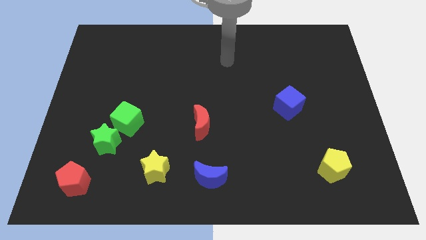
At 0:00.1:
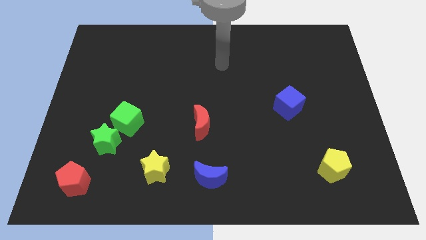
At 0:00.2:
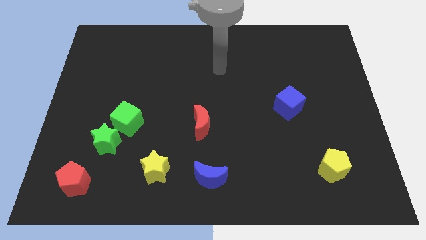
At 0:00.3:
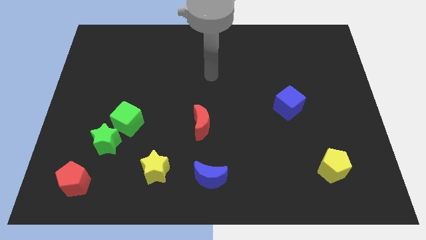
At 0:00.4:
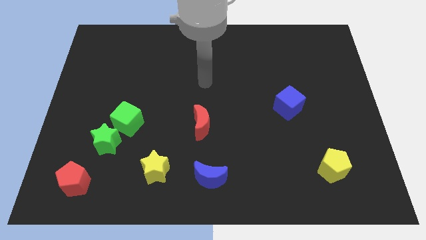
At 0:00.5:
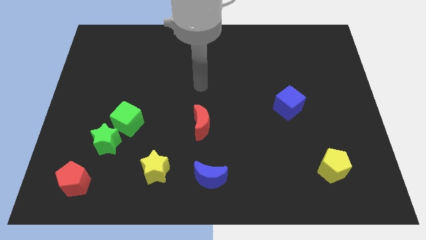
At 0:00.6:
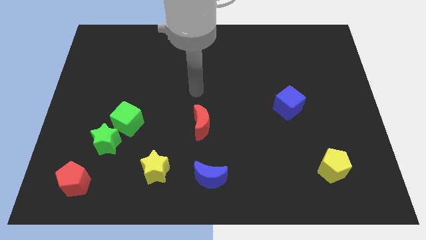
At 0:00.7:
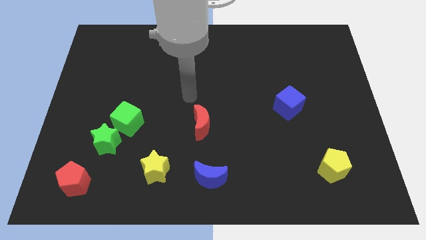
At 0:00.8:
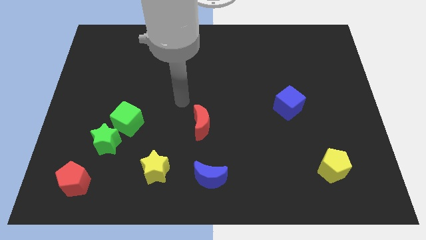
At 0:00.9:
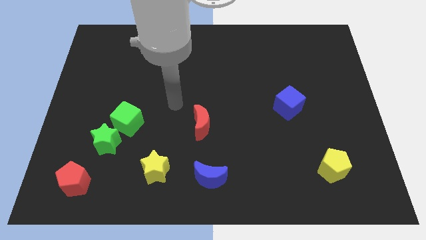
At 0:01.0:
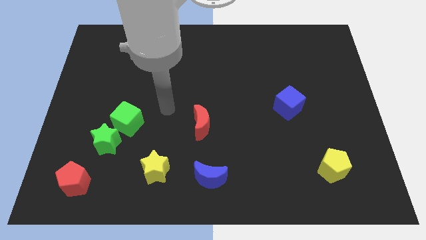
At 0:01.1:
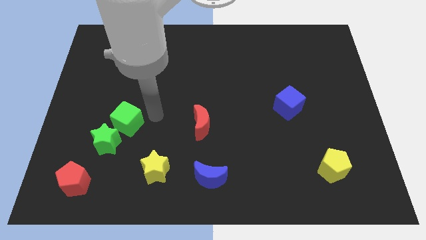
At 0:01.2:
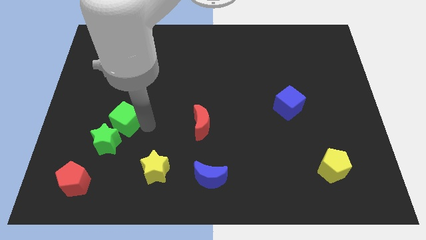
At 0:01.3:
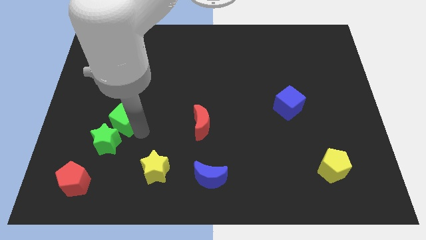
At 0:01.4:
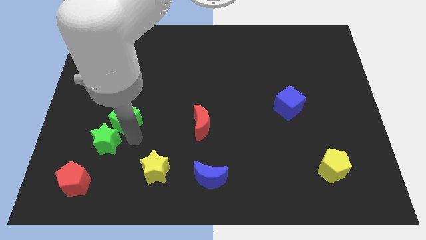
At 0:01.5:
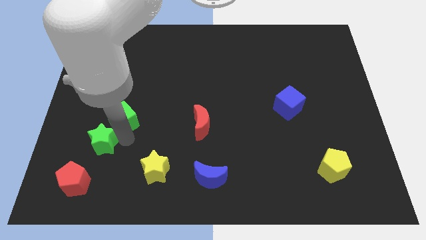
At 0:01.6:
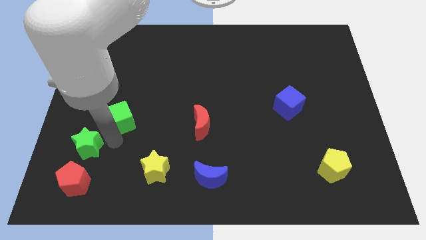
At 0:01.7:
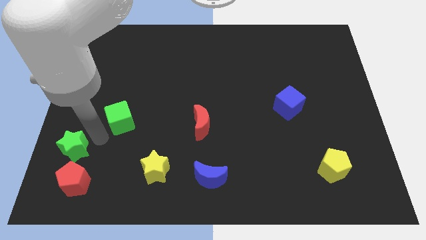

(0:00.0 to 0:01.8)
pull the green cube apart from the green star

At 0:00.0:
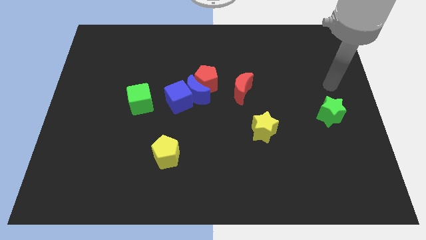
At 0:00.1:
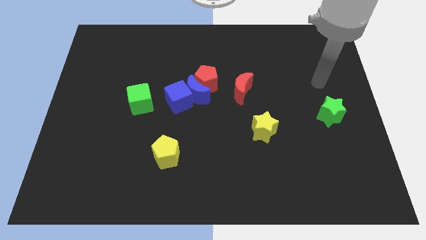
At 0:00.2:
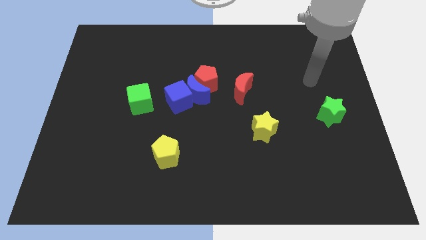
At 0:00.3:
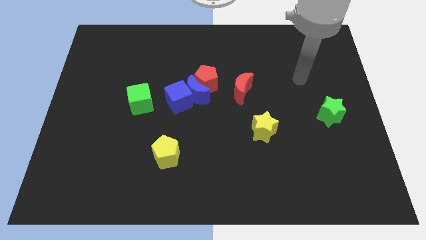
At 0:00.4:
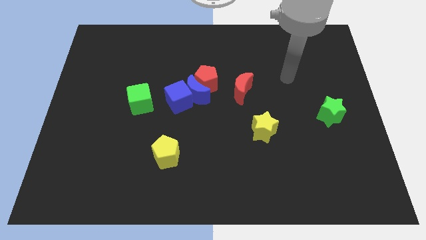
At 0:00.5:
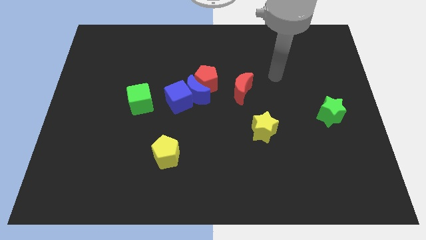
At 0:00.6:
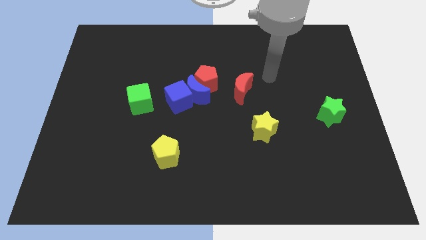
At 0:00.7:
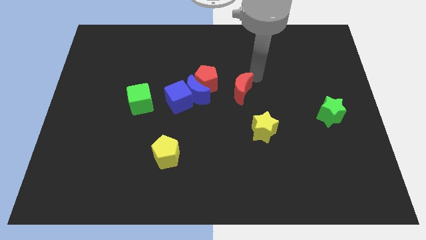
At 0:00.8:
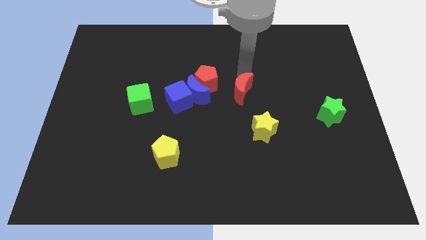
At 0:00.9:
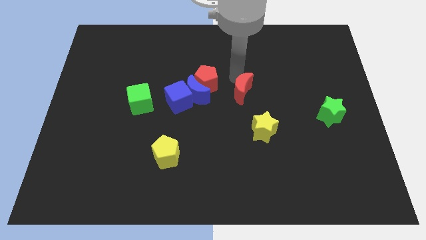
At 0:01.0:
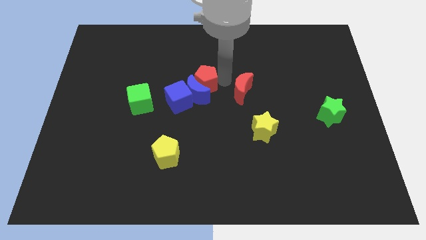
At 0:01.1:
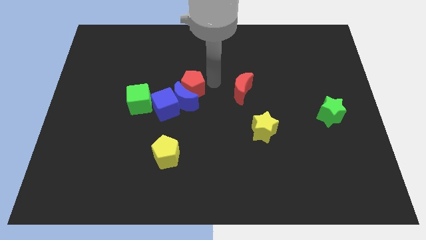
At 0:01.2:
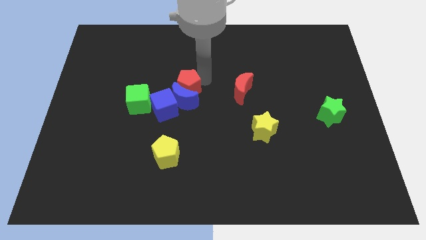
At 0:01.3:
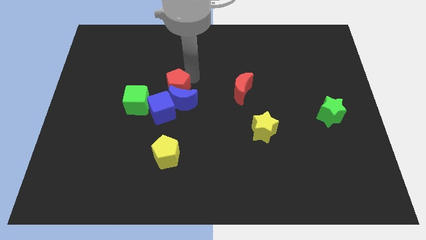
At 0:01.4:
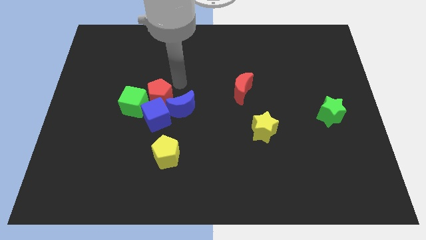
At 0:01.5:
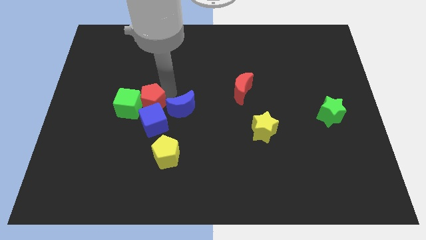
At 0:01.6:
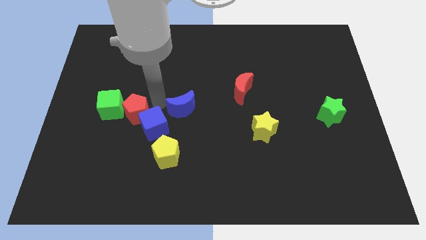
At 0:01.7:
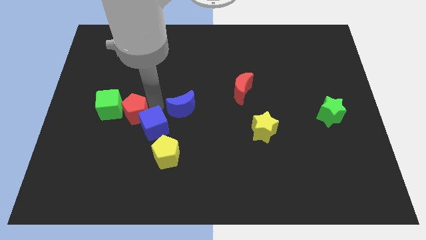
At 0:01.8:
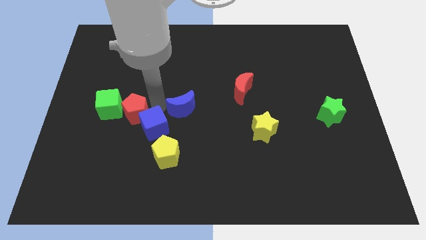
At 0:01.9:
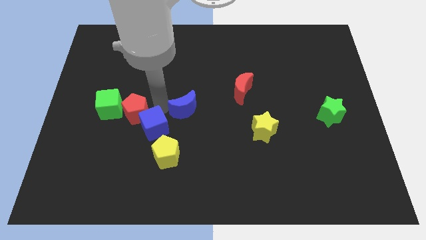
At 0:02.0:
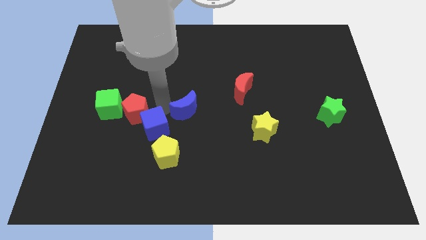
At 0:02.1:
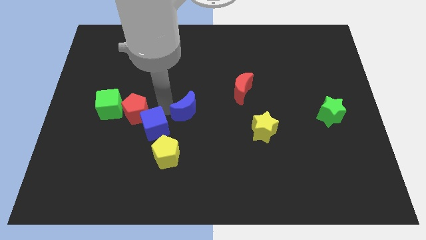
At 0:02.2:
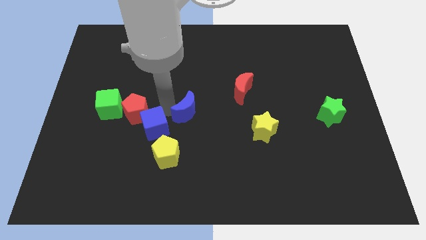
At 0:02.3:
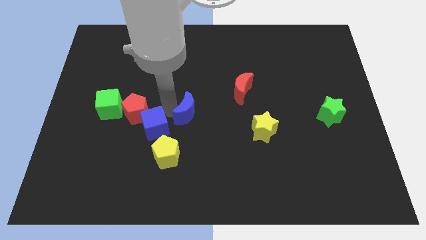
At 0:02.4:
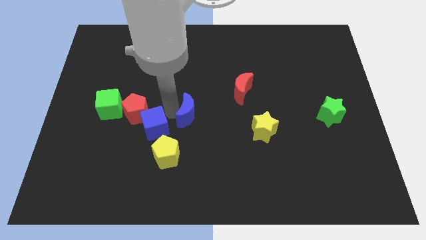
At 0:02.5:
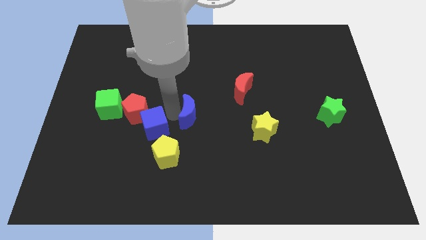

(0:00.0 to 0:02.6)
pull the blue moon apart from the red pentagon and blue cube

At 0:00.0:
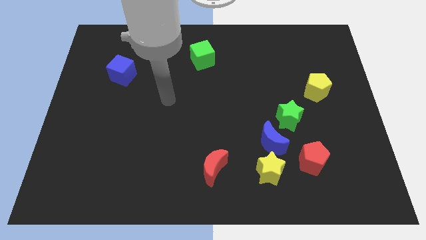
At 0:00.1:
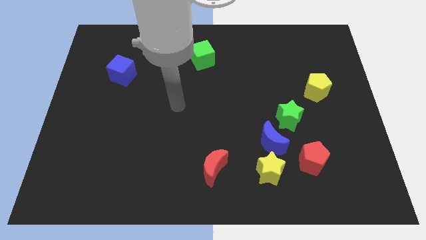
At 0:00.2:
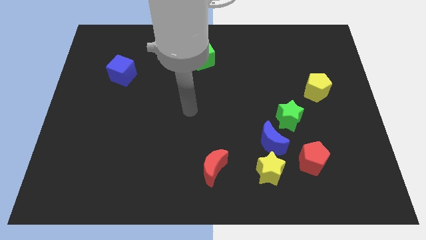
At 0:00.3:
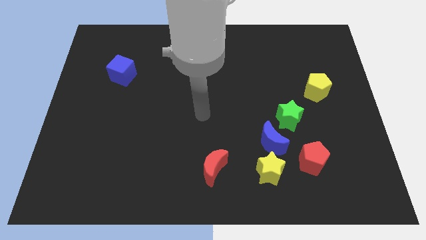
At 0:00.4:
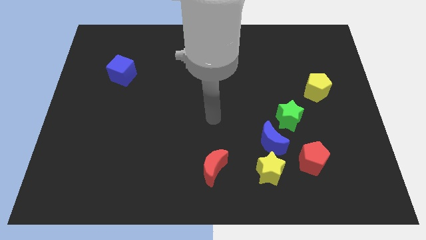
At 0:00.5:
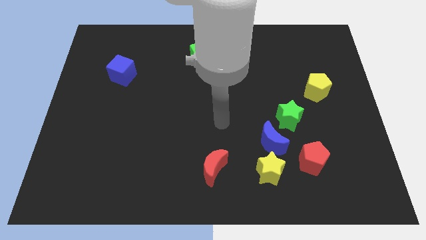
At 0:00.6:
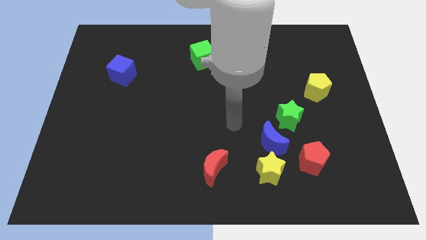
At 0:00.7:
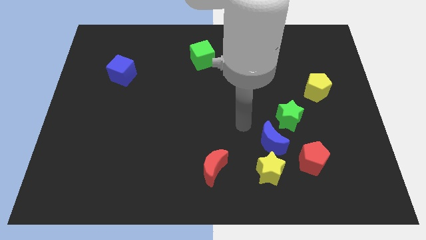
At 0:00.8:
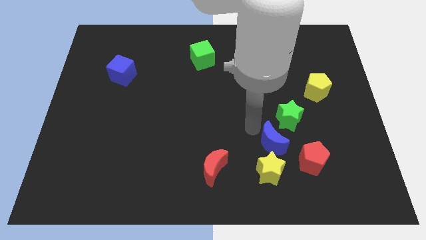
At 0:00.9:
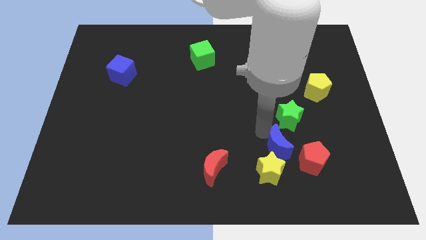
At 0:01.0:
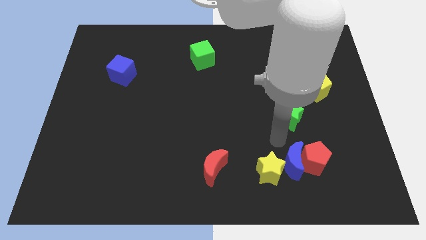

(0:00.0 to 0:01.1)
move the green star away from the blue moon

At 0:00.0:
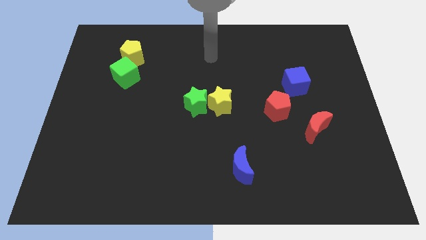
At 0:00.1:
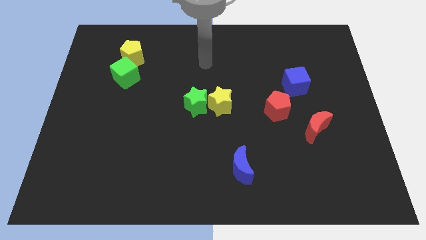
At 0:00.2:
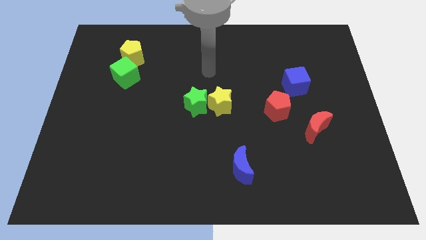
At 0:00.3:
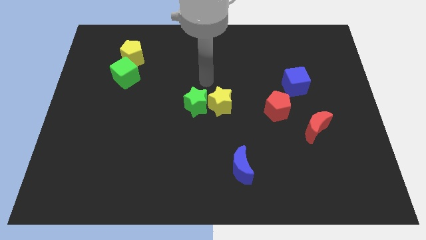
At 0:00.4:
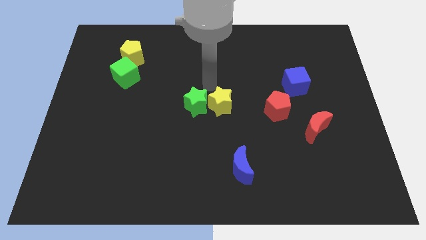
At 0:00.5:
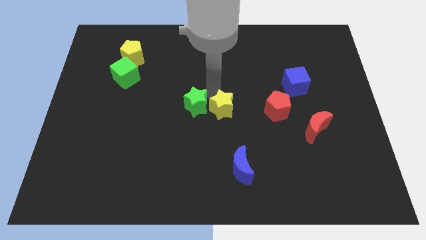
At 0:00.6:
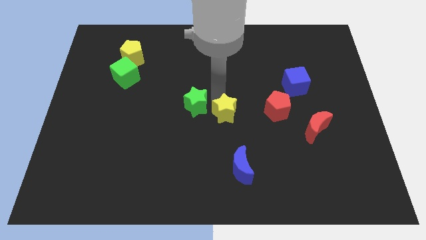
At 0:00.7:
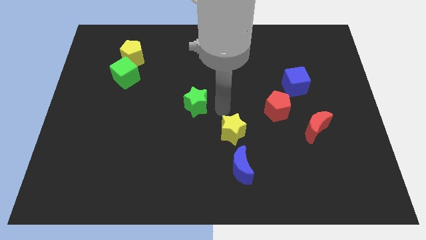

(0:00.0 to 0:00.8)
move the green star away from the yellow star

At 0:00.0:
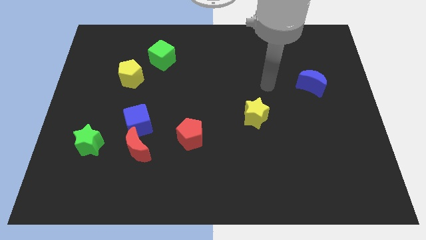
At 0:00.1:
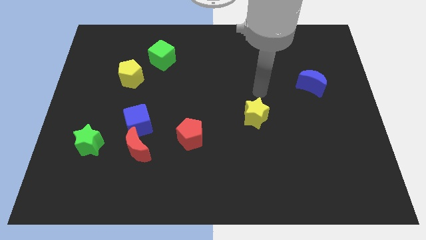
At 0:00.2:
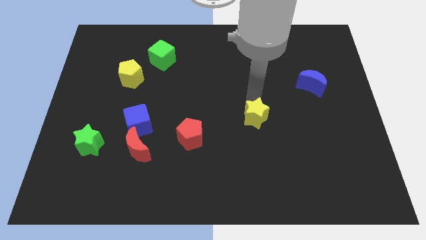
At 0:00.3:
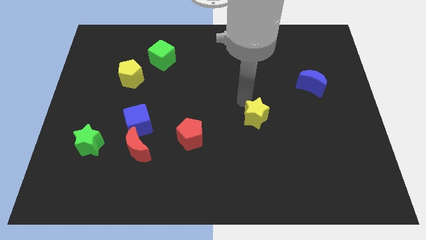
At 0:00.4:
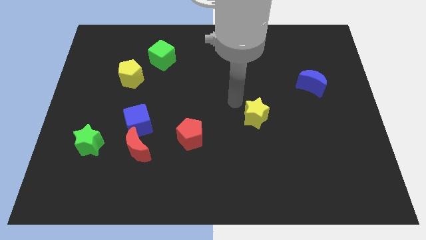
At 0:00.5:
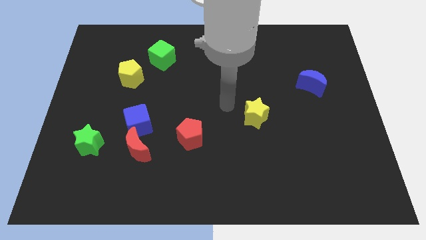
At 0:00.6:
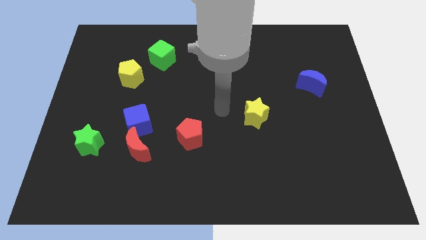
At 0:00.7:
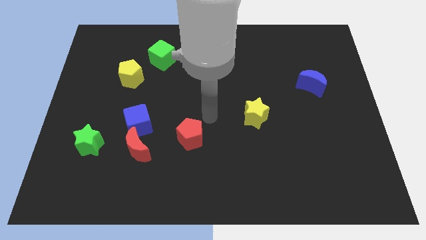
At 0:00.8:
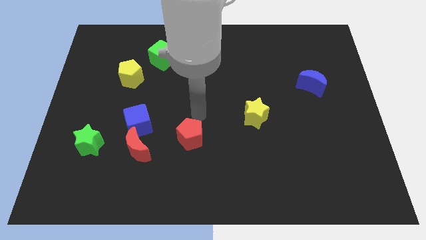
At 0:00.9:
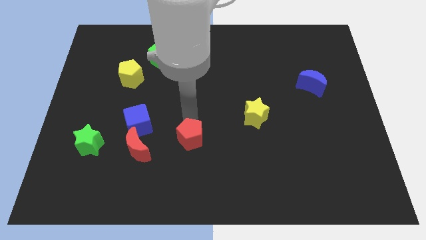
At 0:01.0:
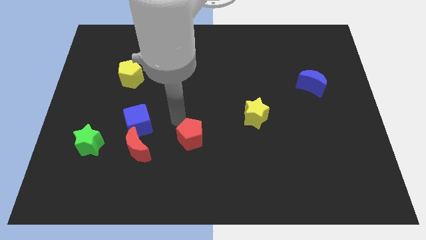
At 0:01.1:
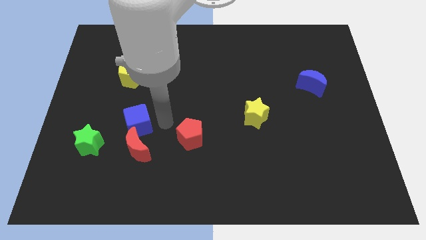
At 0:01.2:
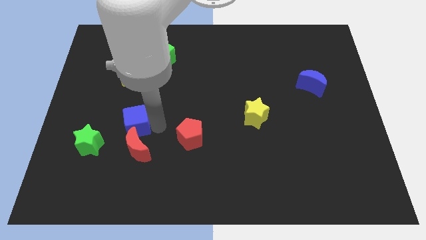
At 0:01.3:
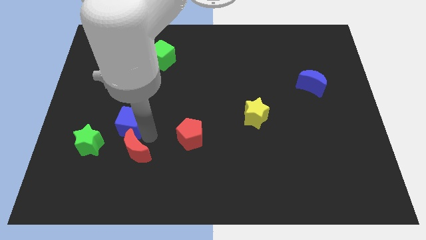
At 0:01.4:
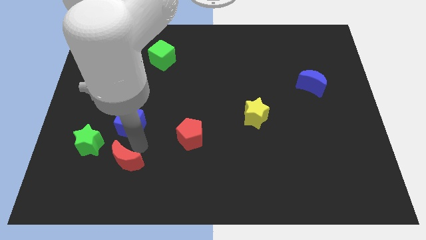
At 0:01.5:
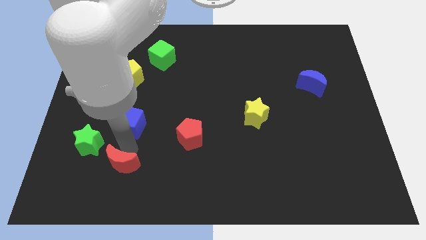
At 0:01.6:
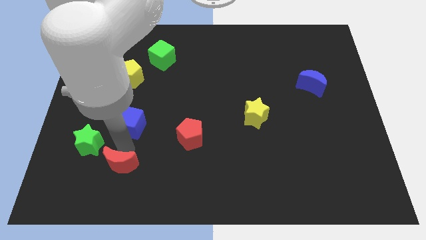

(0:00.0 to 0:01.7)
pull the blue cube apart from the red moon

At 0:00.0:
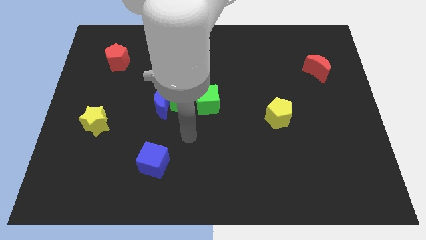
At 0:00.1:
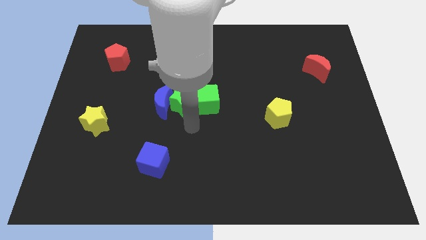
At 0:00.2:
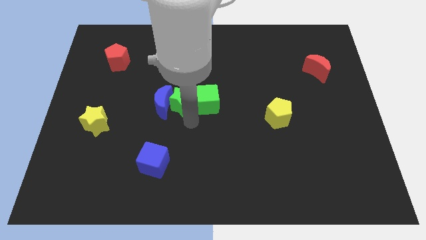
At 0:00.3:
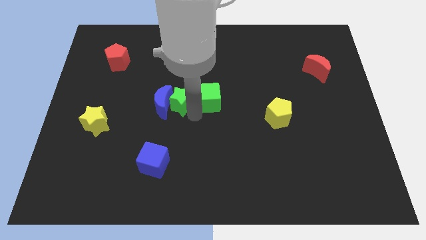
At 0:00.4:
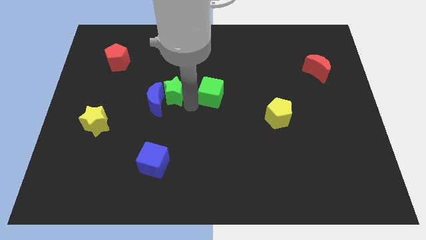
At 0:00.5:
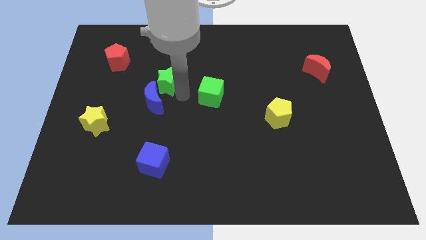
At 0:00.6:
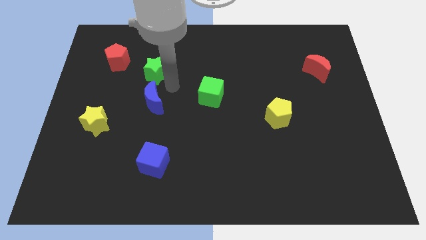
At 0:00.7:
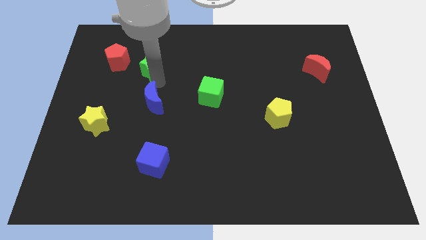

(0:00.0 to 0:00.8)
separate the blue moon from the green star

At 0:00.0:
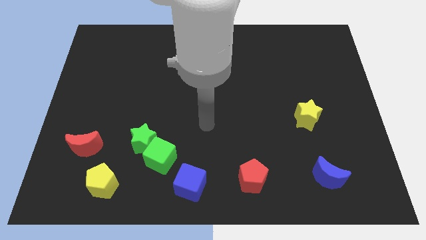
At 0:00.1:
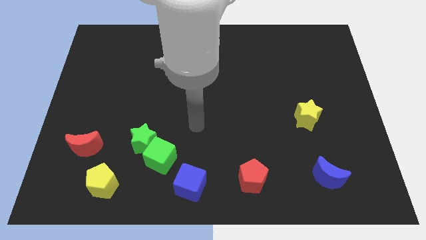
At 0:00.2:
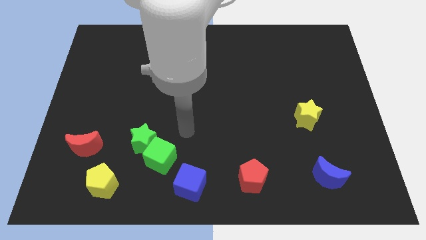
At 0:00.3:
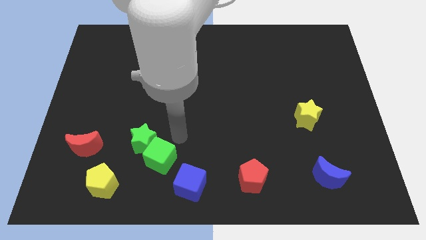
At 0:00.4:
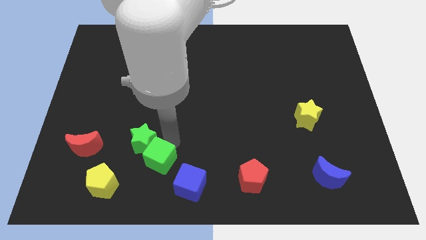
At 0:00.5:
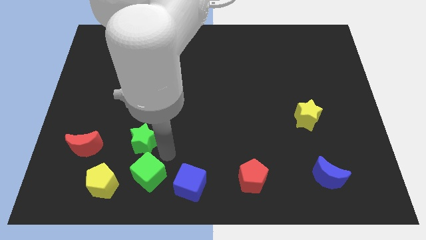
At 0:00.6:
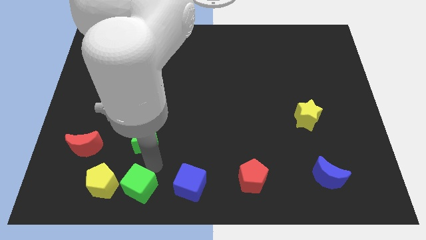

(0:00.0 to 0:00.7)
separate the green star from the green cube
